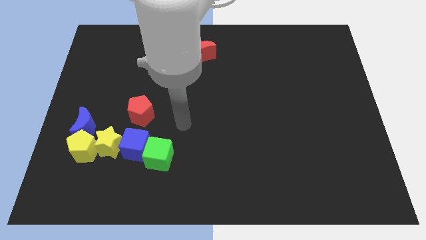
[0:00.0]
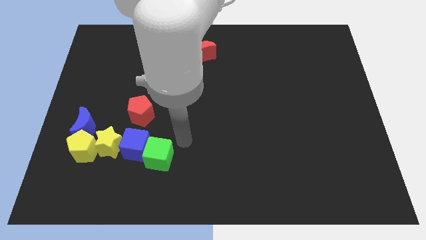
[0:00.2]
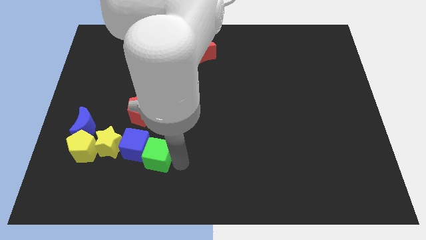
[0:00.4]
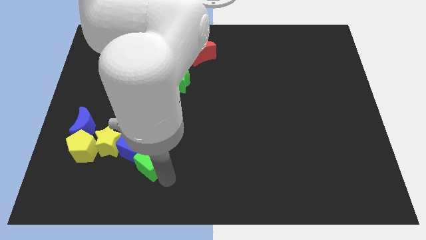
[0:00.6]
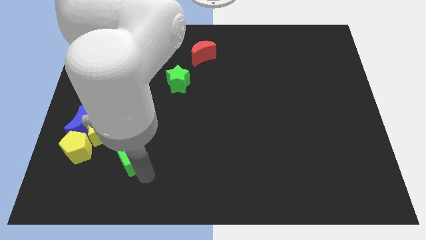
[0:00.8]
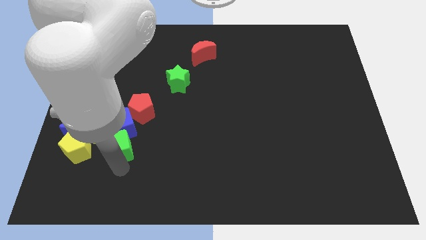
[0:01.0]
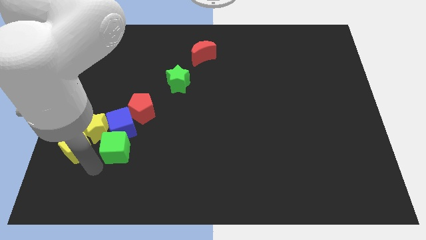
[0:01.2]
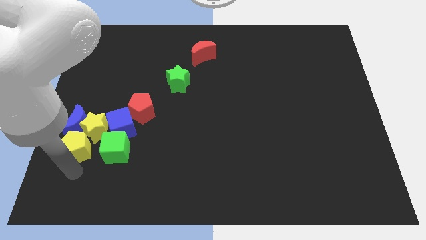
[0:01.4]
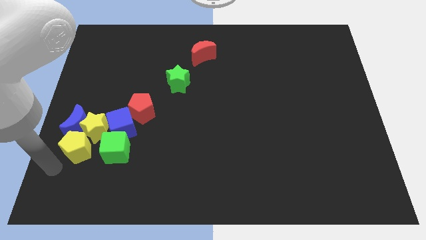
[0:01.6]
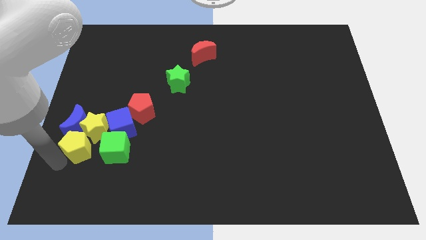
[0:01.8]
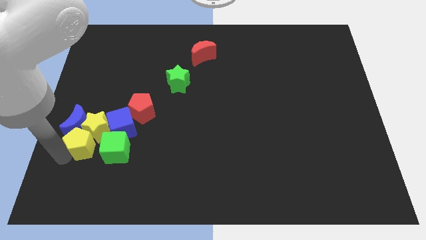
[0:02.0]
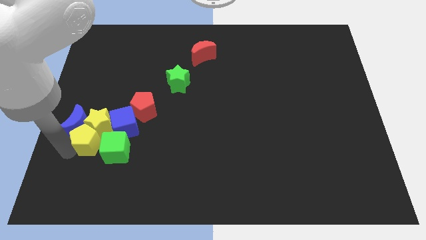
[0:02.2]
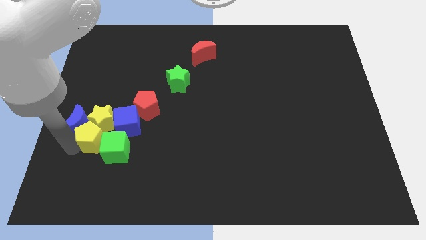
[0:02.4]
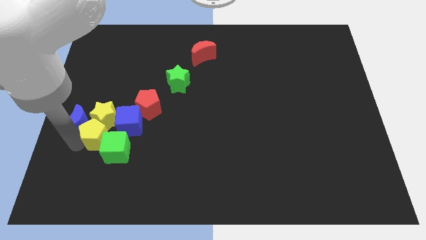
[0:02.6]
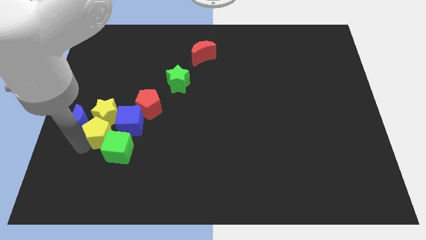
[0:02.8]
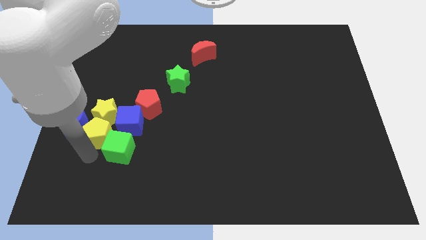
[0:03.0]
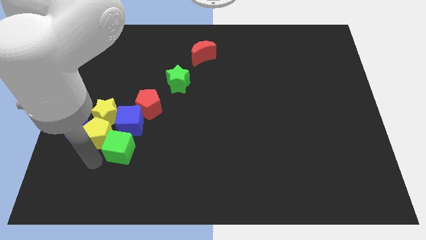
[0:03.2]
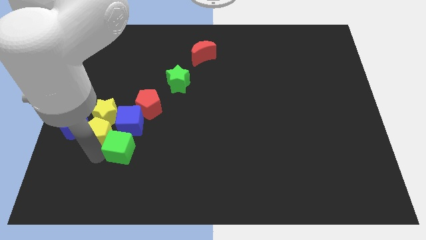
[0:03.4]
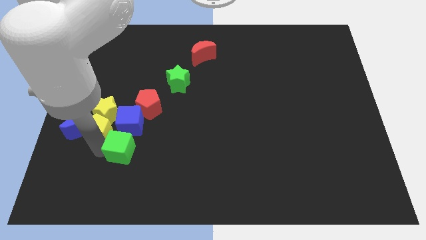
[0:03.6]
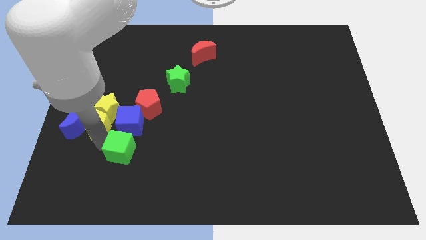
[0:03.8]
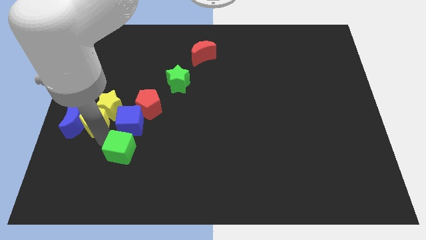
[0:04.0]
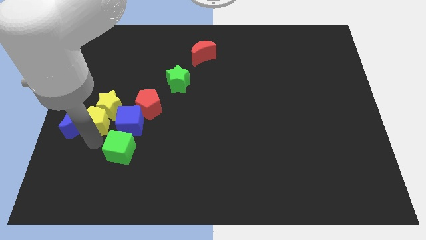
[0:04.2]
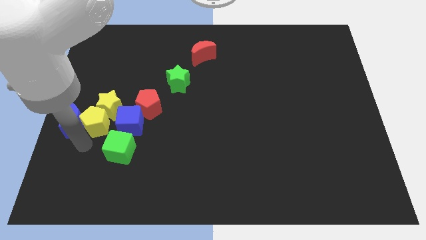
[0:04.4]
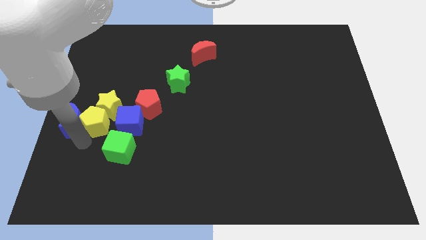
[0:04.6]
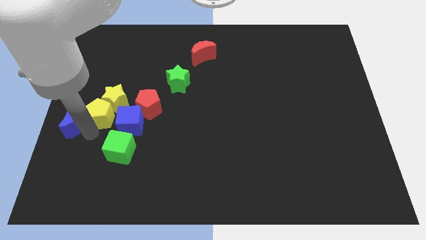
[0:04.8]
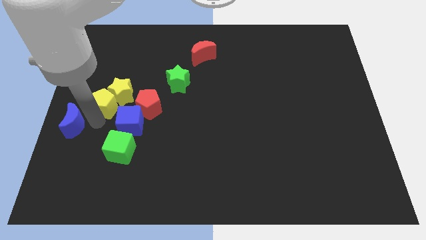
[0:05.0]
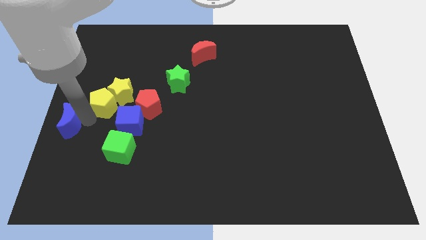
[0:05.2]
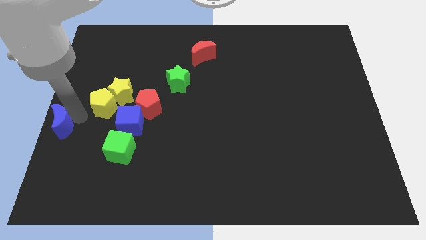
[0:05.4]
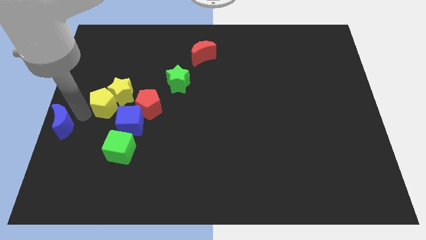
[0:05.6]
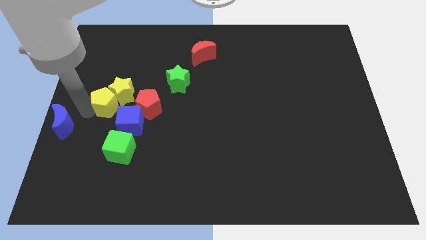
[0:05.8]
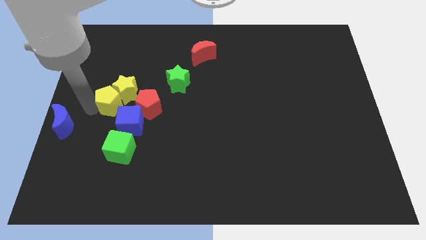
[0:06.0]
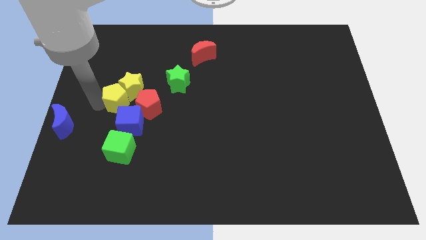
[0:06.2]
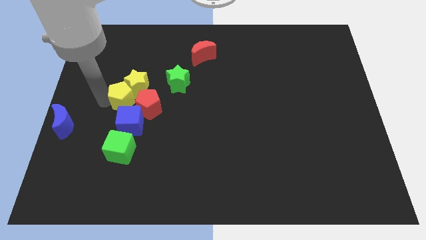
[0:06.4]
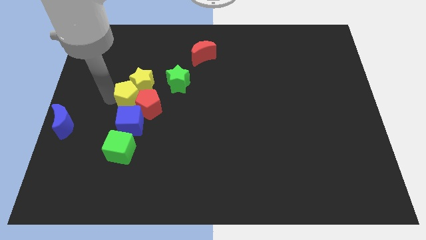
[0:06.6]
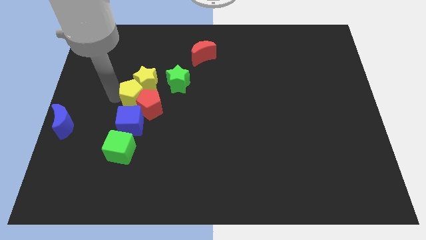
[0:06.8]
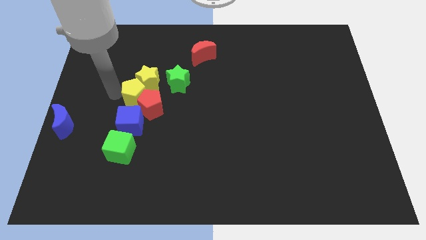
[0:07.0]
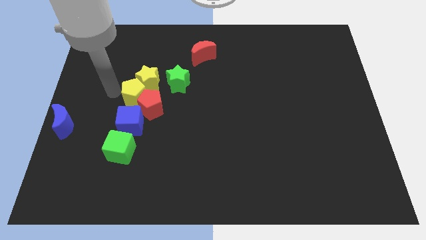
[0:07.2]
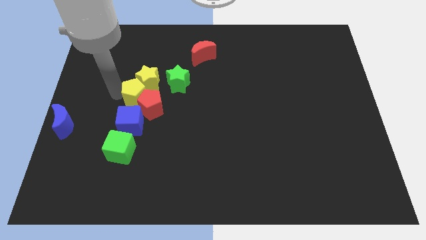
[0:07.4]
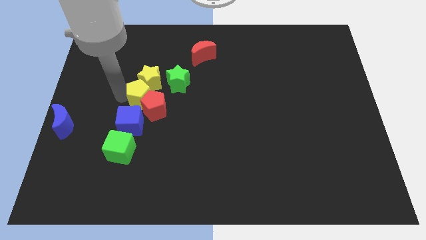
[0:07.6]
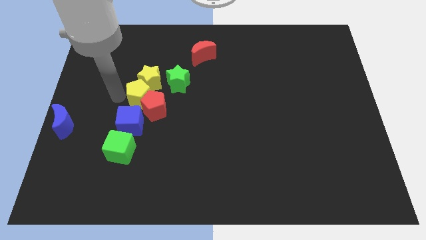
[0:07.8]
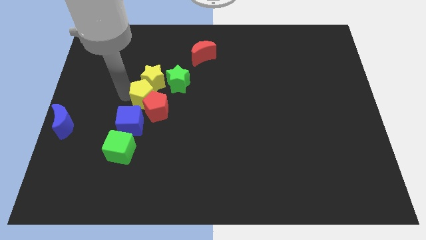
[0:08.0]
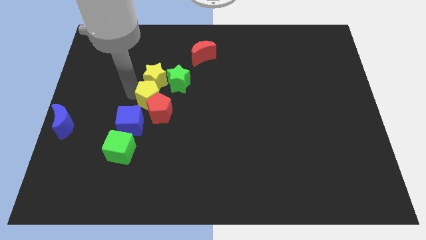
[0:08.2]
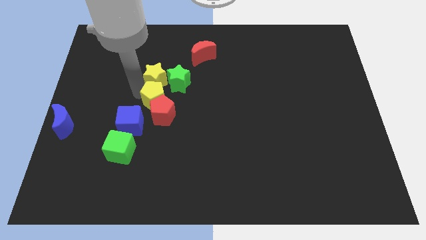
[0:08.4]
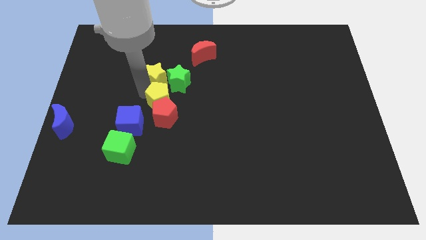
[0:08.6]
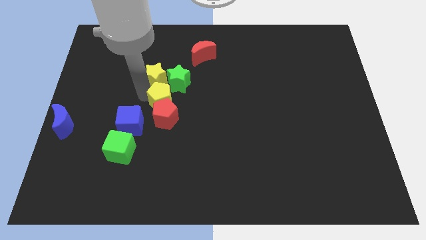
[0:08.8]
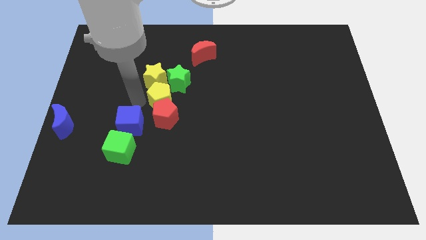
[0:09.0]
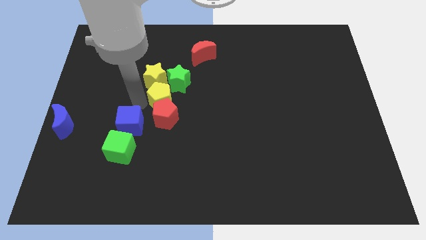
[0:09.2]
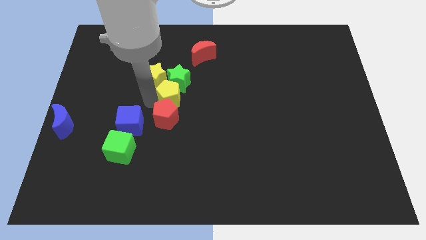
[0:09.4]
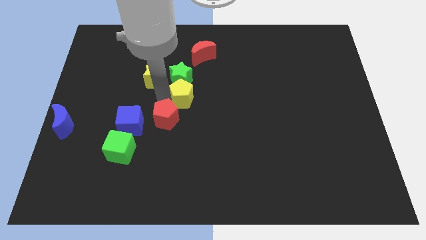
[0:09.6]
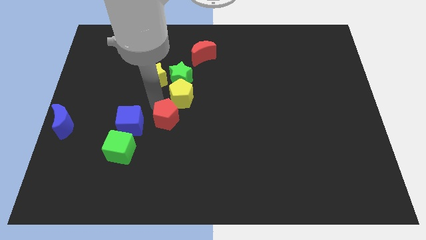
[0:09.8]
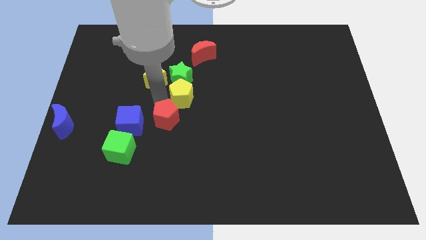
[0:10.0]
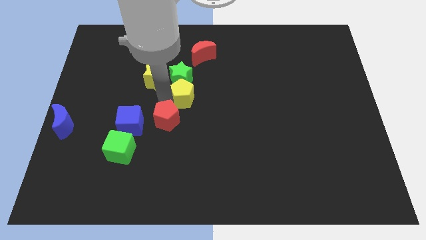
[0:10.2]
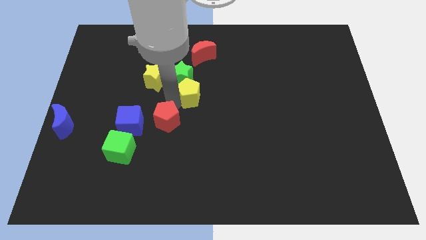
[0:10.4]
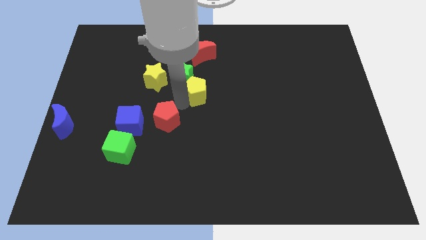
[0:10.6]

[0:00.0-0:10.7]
move the yellow pentagon to the right of the green star

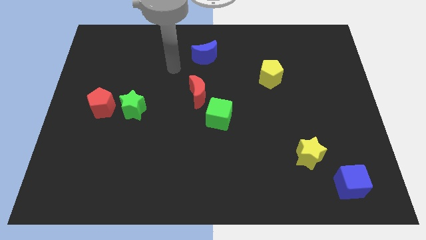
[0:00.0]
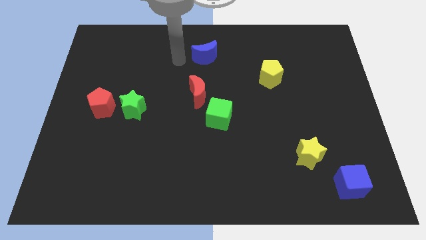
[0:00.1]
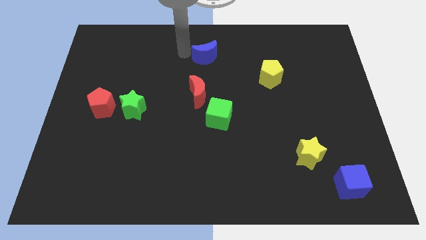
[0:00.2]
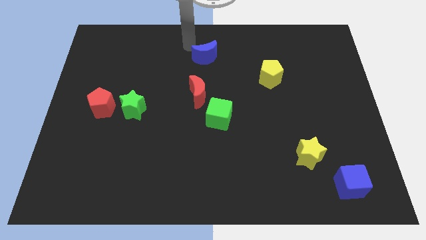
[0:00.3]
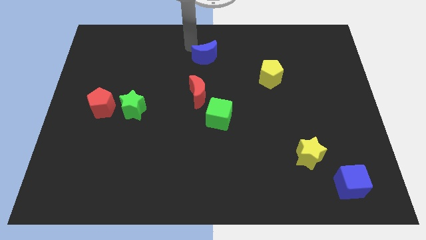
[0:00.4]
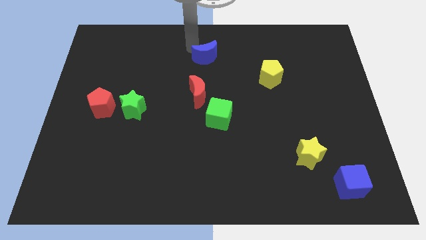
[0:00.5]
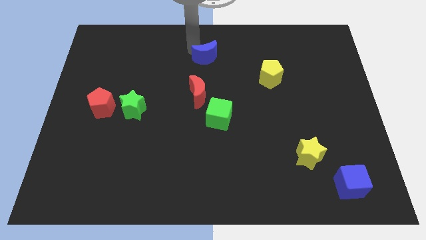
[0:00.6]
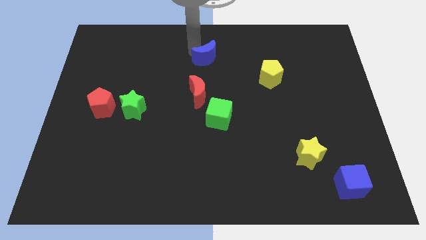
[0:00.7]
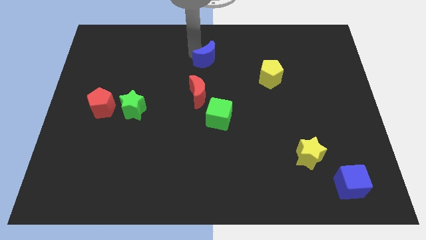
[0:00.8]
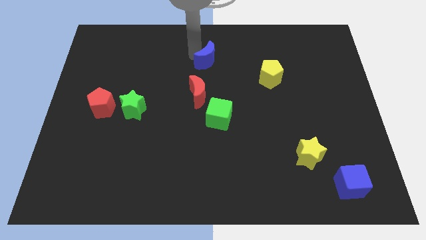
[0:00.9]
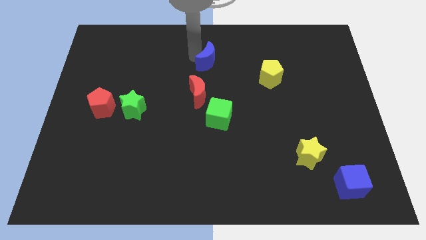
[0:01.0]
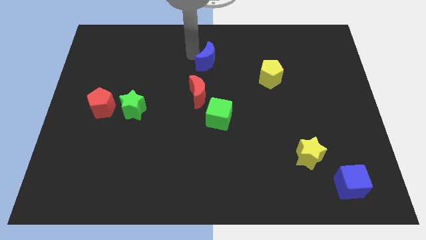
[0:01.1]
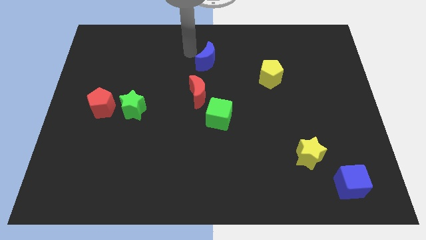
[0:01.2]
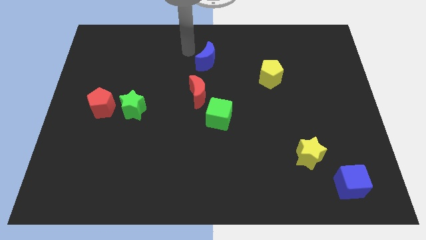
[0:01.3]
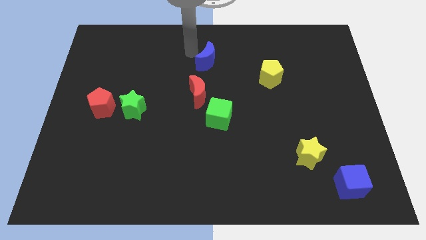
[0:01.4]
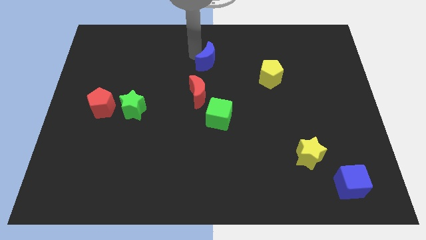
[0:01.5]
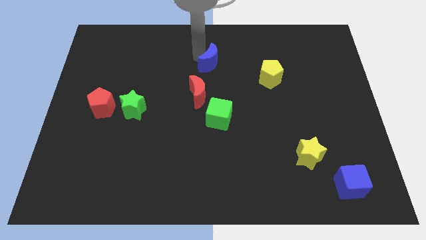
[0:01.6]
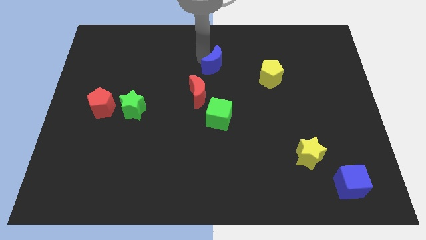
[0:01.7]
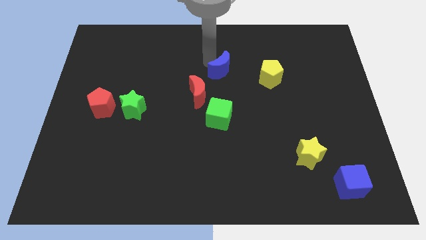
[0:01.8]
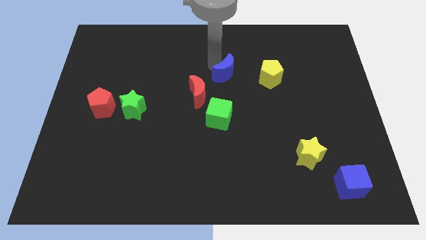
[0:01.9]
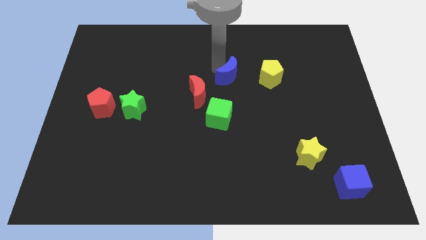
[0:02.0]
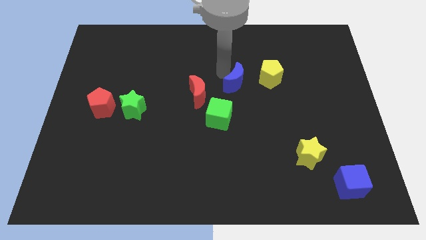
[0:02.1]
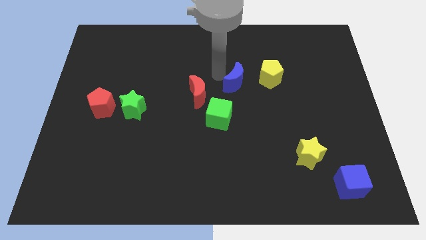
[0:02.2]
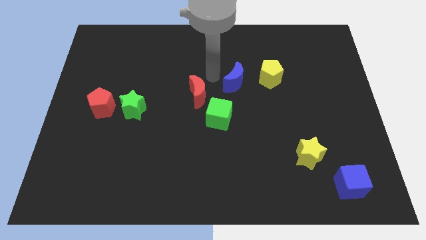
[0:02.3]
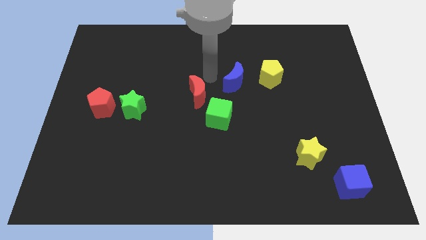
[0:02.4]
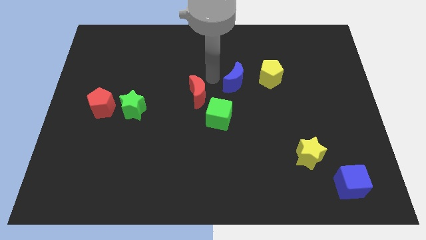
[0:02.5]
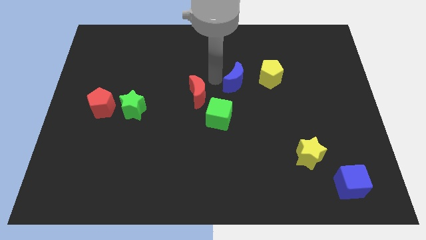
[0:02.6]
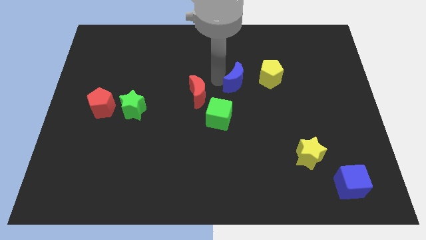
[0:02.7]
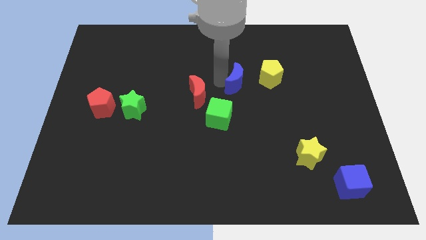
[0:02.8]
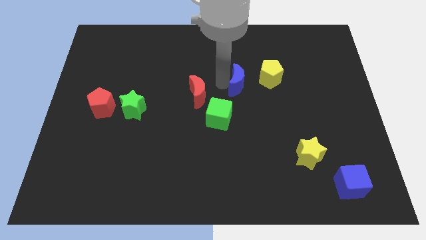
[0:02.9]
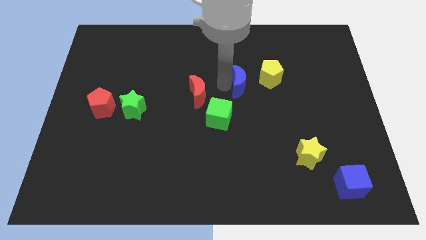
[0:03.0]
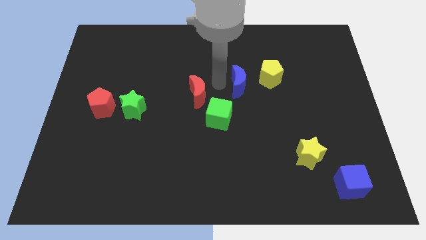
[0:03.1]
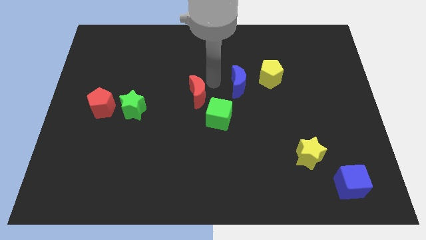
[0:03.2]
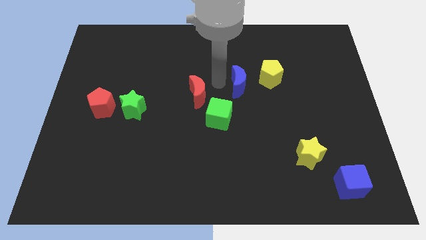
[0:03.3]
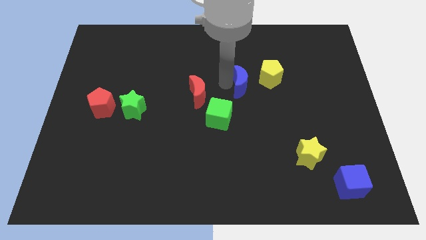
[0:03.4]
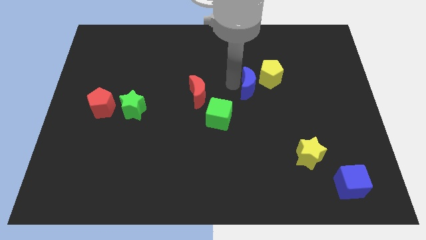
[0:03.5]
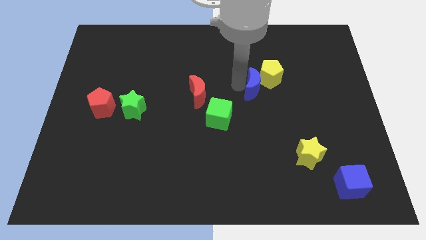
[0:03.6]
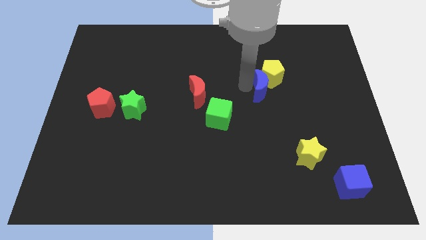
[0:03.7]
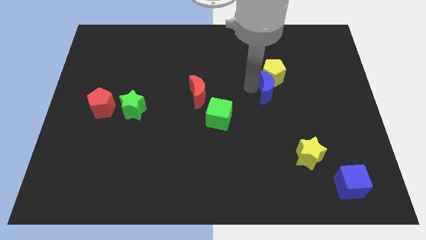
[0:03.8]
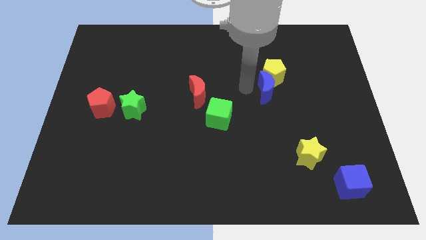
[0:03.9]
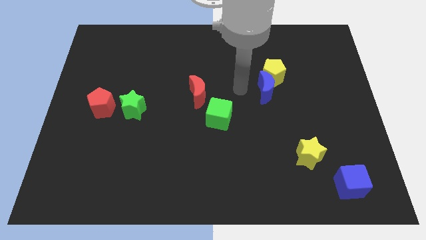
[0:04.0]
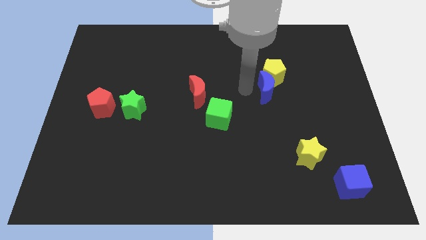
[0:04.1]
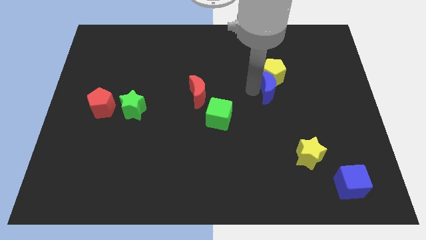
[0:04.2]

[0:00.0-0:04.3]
put the blue moon diagonally down and to the right of the yellow pentagon
